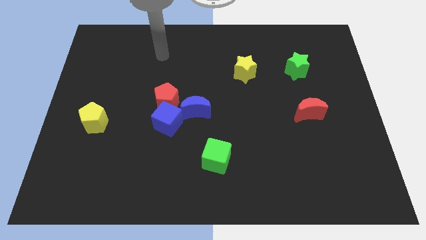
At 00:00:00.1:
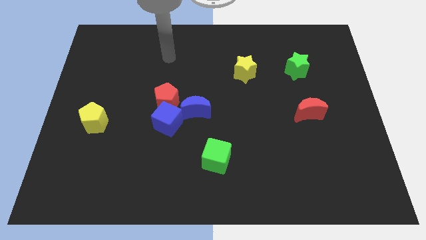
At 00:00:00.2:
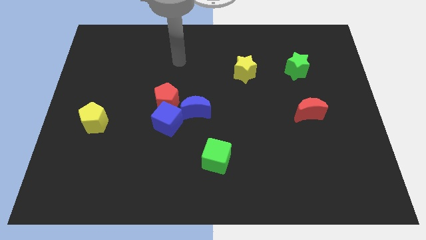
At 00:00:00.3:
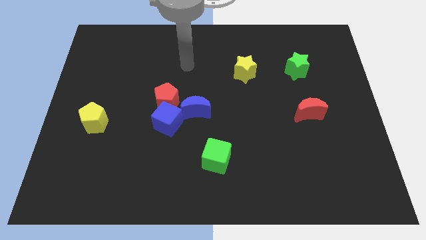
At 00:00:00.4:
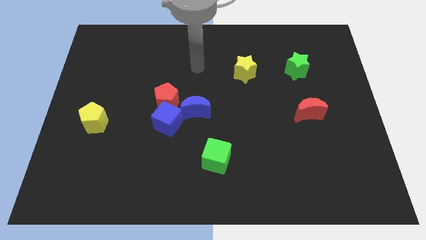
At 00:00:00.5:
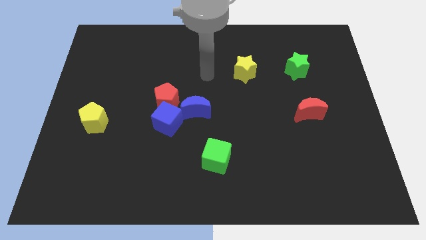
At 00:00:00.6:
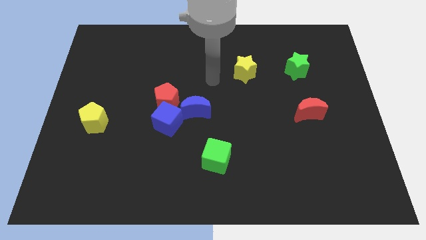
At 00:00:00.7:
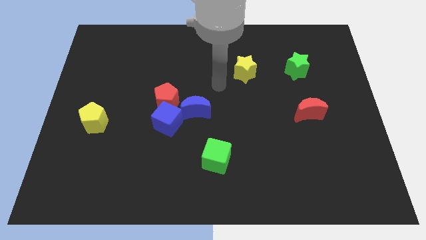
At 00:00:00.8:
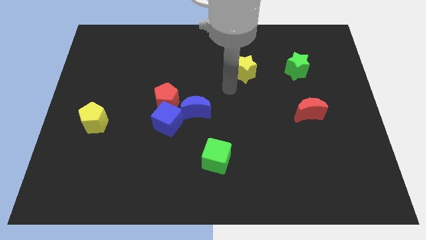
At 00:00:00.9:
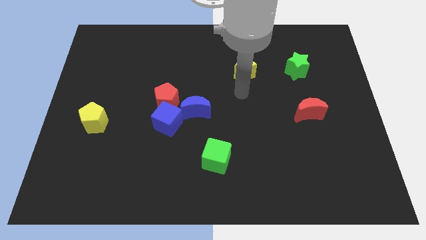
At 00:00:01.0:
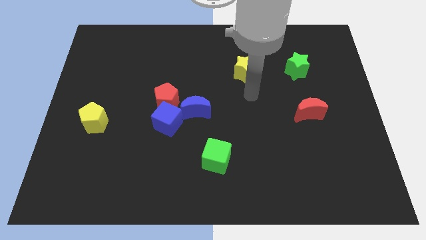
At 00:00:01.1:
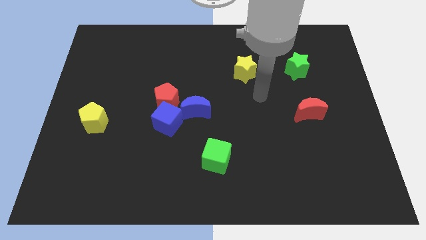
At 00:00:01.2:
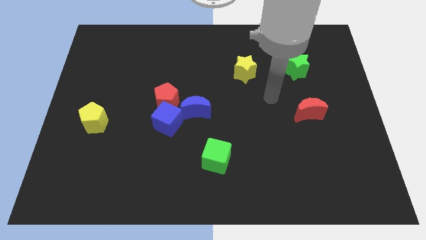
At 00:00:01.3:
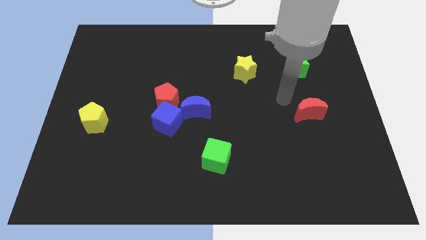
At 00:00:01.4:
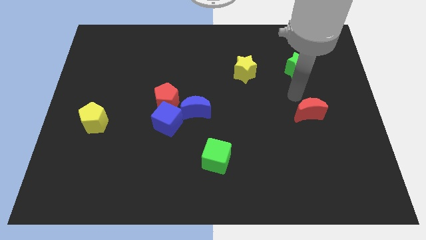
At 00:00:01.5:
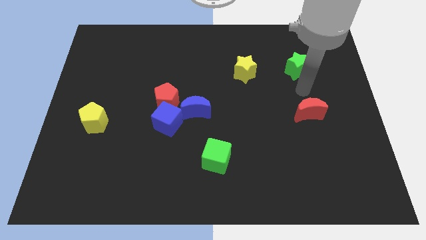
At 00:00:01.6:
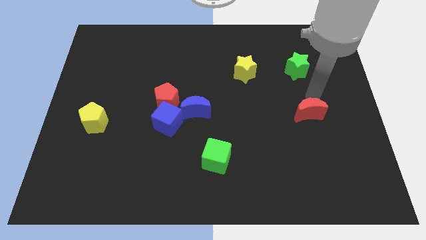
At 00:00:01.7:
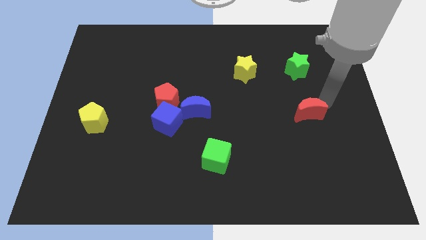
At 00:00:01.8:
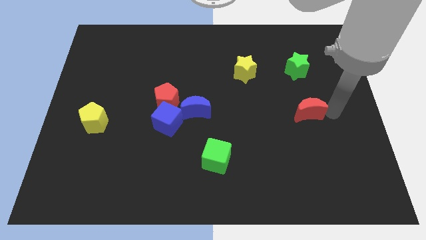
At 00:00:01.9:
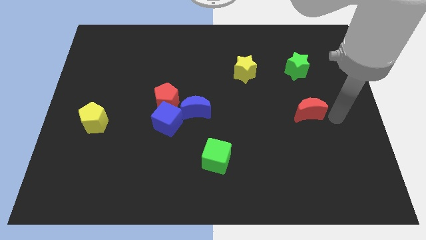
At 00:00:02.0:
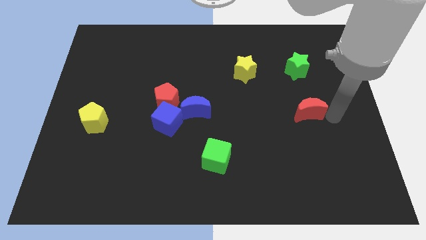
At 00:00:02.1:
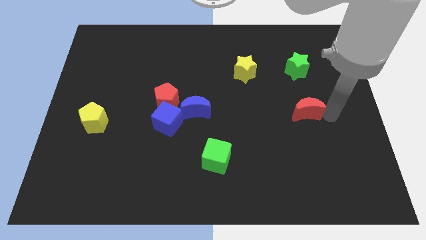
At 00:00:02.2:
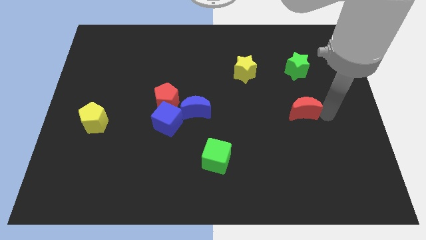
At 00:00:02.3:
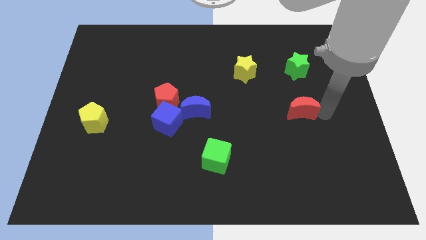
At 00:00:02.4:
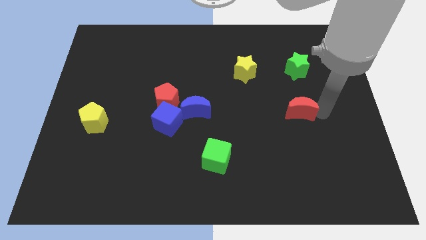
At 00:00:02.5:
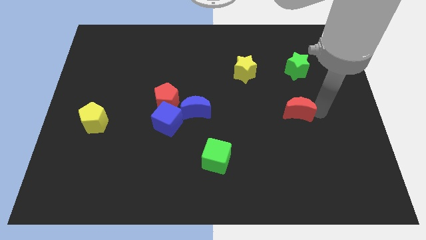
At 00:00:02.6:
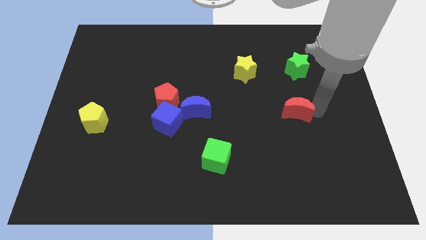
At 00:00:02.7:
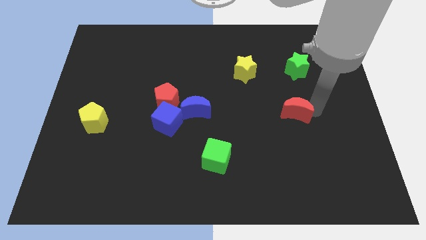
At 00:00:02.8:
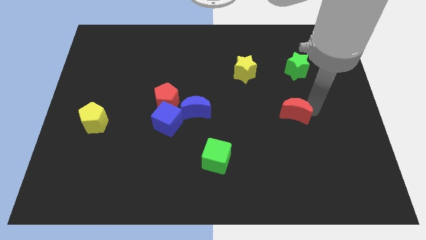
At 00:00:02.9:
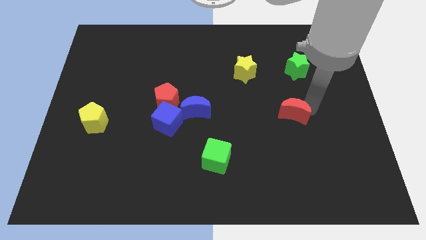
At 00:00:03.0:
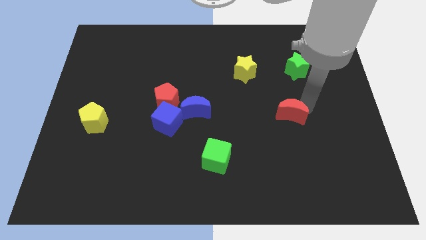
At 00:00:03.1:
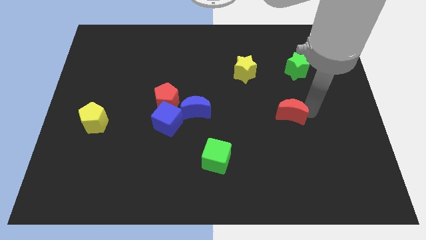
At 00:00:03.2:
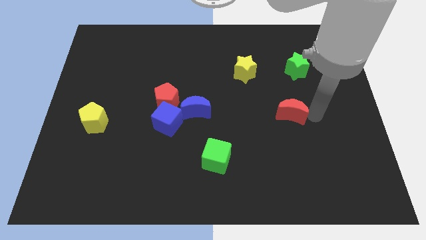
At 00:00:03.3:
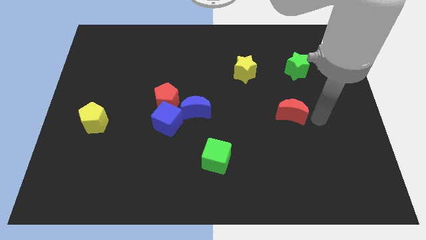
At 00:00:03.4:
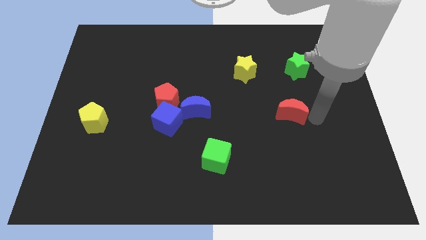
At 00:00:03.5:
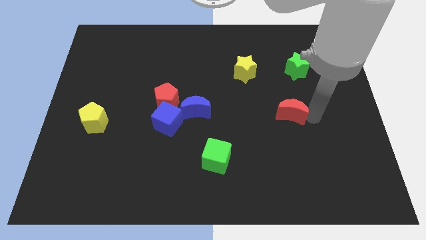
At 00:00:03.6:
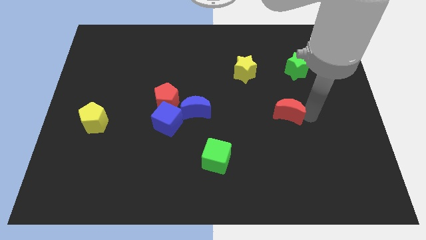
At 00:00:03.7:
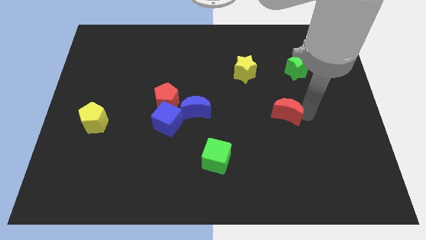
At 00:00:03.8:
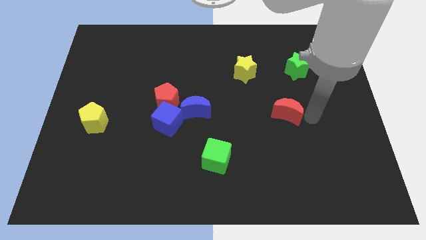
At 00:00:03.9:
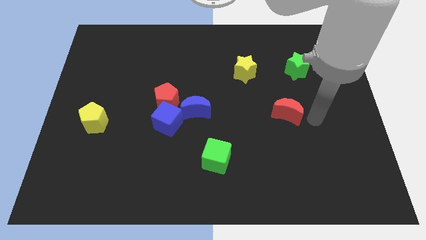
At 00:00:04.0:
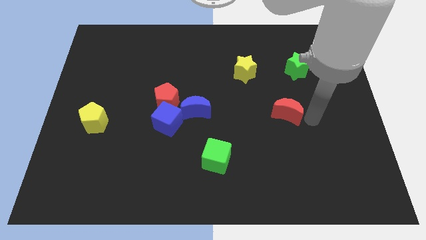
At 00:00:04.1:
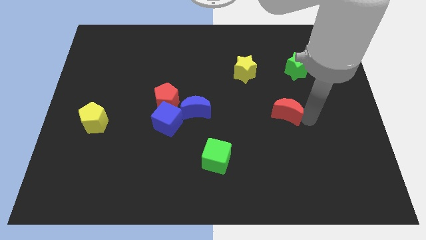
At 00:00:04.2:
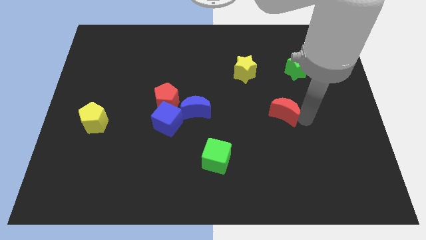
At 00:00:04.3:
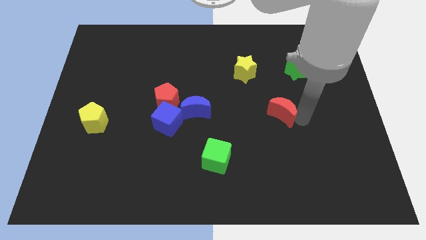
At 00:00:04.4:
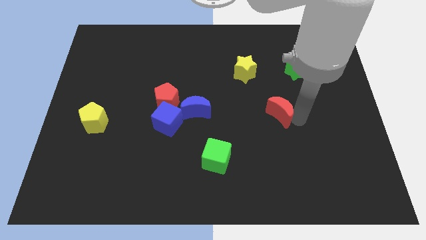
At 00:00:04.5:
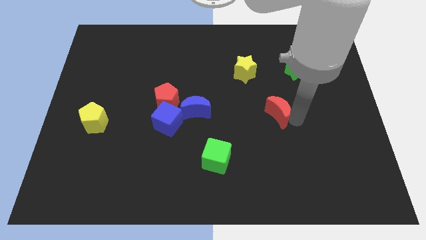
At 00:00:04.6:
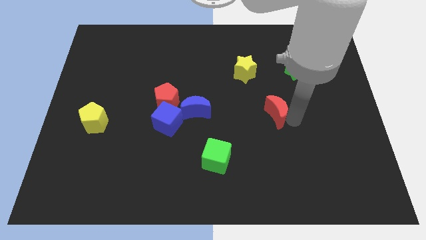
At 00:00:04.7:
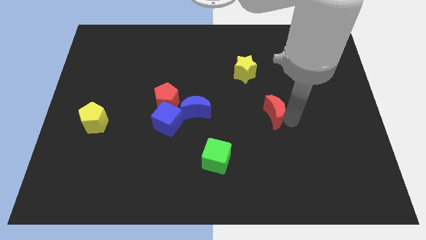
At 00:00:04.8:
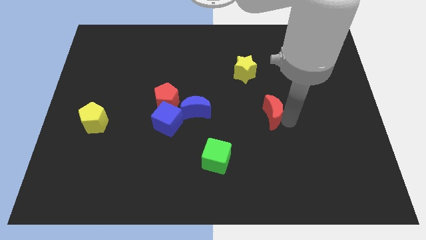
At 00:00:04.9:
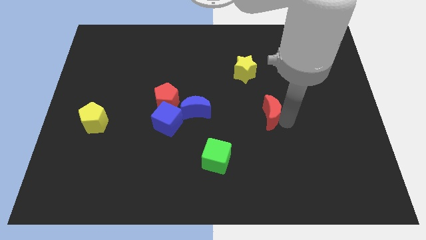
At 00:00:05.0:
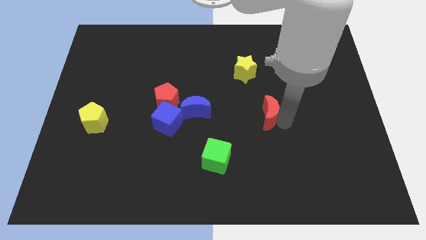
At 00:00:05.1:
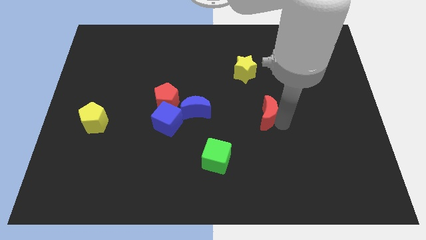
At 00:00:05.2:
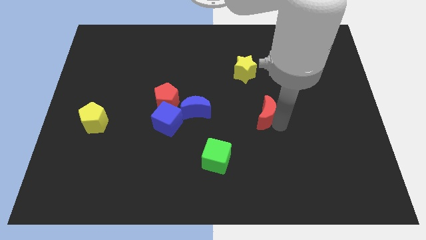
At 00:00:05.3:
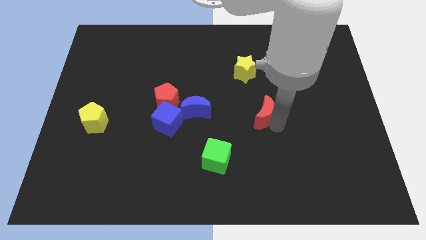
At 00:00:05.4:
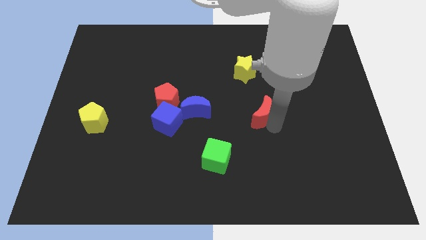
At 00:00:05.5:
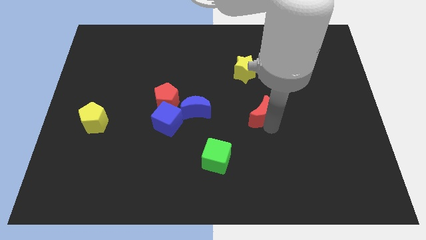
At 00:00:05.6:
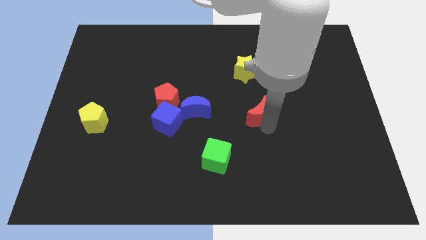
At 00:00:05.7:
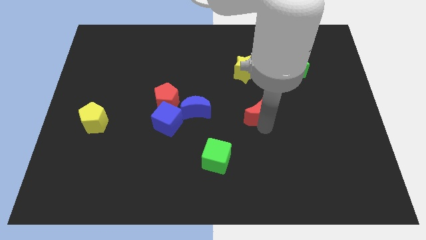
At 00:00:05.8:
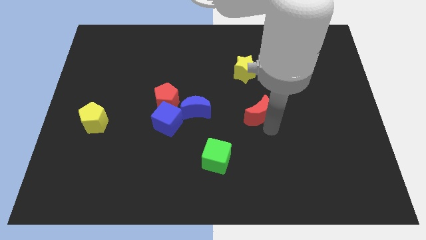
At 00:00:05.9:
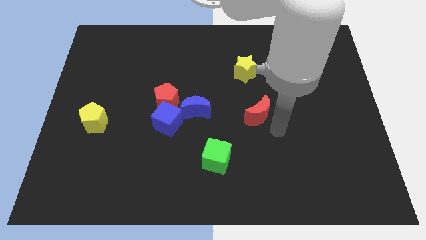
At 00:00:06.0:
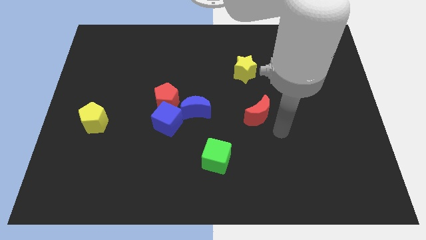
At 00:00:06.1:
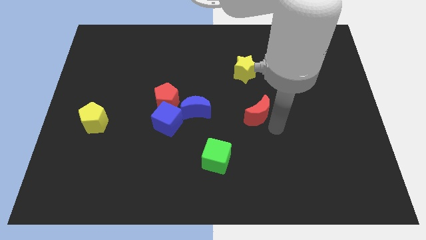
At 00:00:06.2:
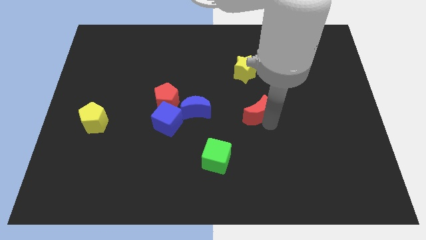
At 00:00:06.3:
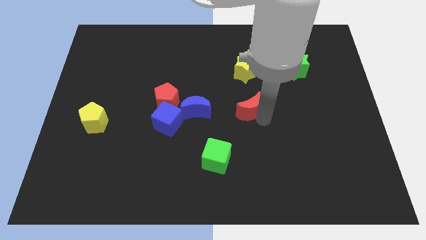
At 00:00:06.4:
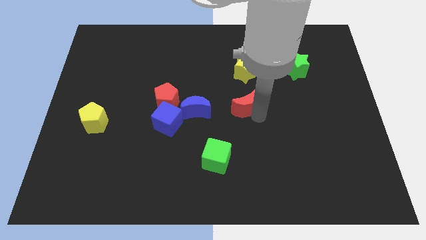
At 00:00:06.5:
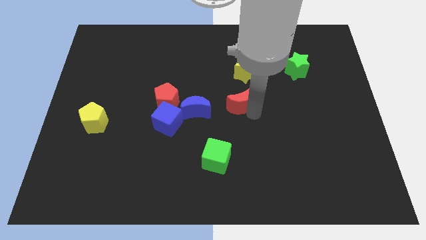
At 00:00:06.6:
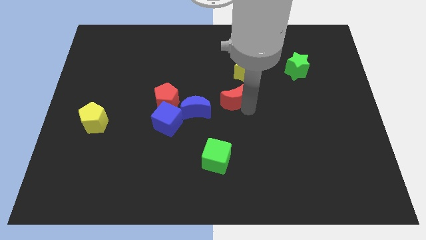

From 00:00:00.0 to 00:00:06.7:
move the red moon diagonally up and to the right of the blue moon
